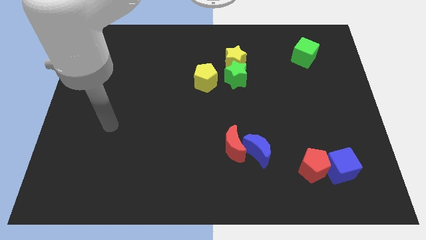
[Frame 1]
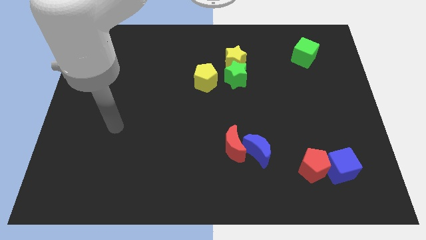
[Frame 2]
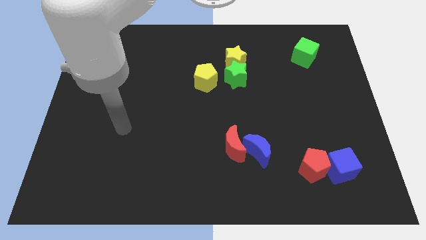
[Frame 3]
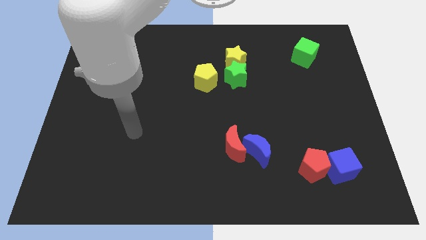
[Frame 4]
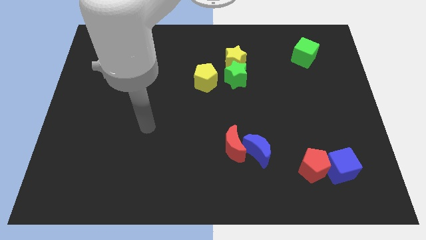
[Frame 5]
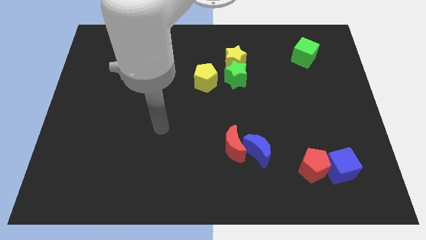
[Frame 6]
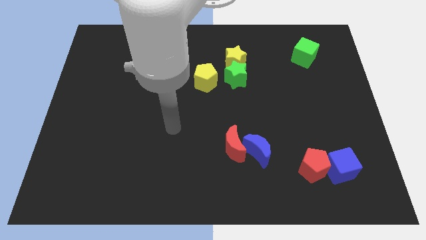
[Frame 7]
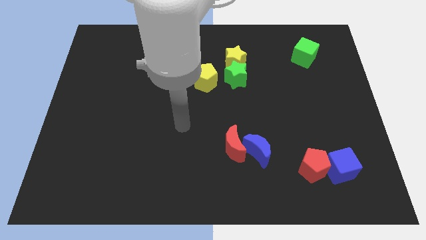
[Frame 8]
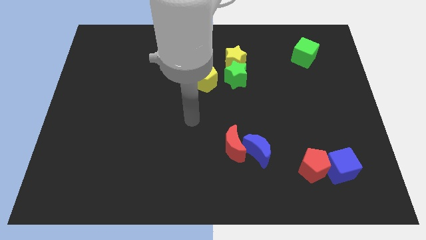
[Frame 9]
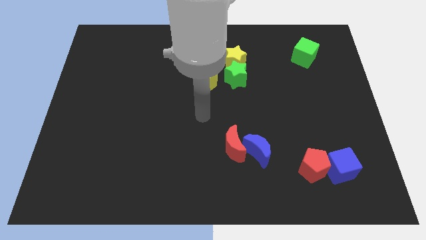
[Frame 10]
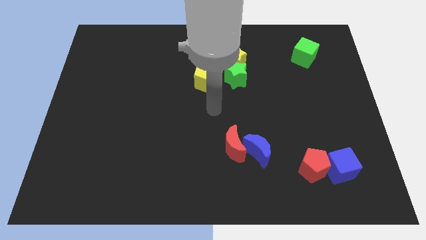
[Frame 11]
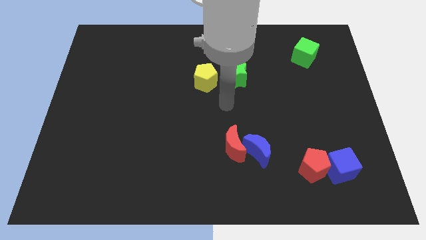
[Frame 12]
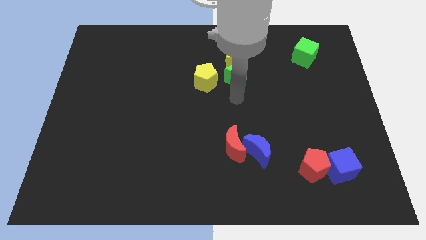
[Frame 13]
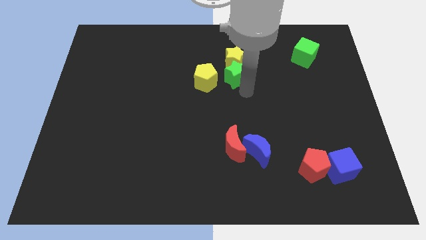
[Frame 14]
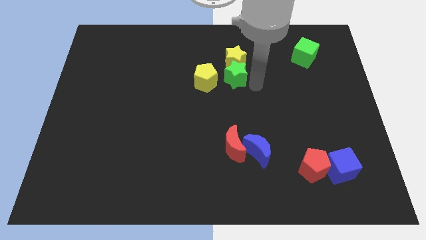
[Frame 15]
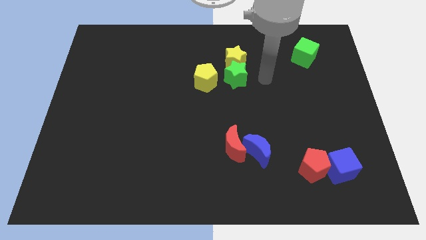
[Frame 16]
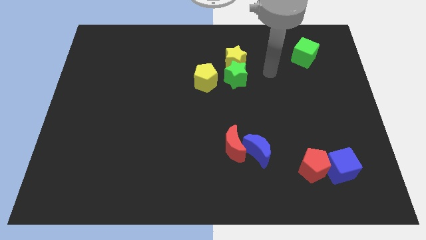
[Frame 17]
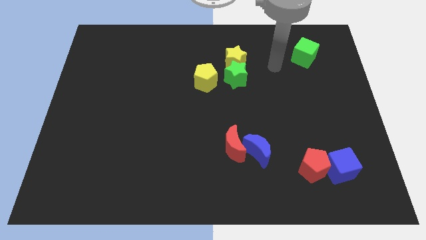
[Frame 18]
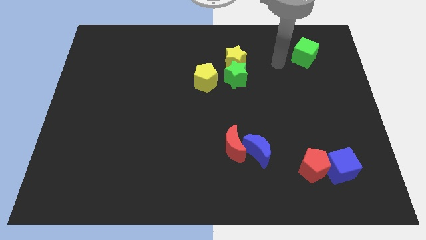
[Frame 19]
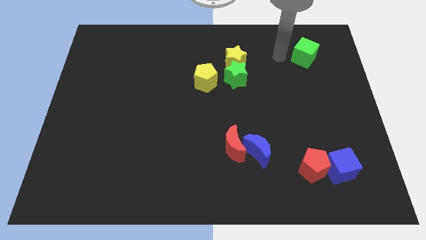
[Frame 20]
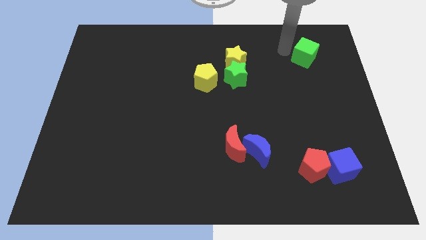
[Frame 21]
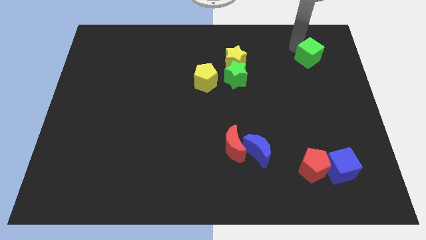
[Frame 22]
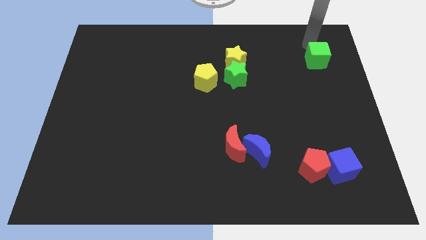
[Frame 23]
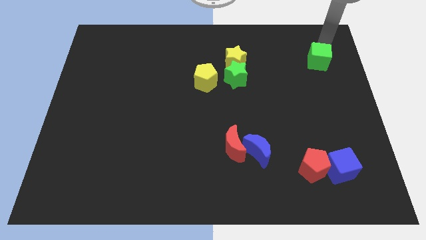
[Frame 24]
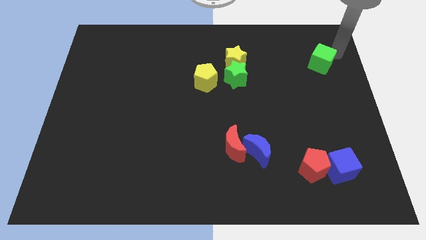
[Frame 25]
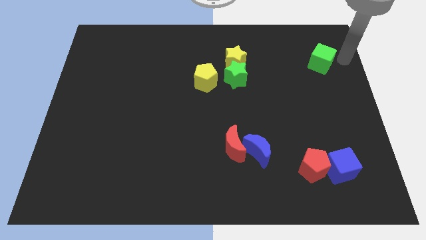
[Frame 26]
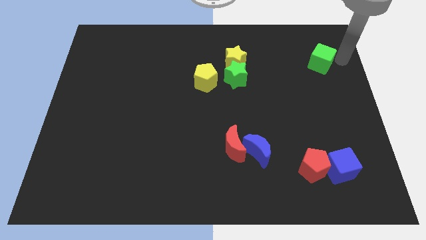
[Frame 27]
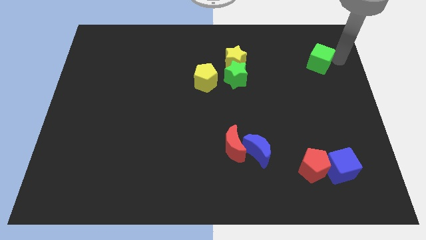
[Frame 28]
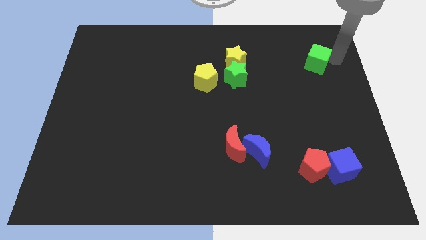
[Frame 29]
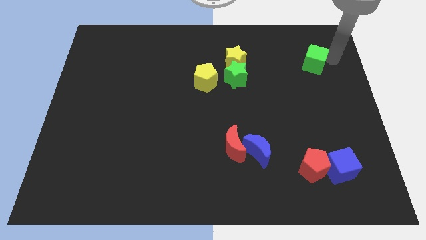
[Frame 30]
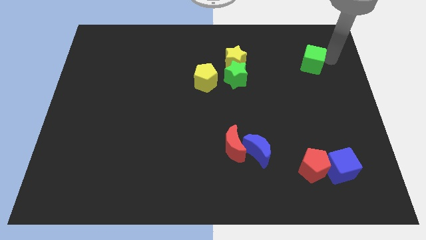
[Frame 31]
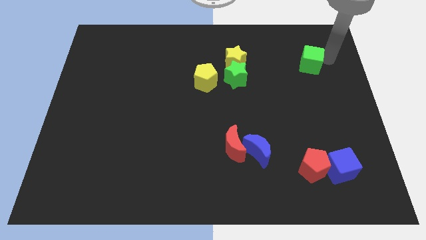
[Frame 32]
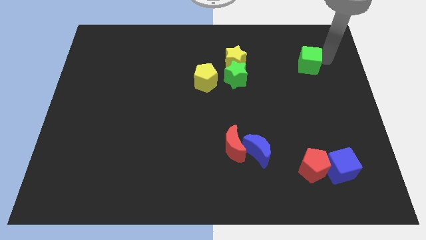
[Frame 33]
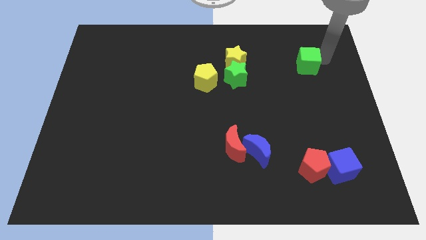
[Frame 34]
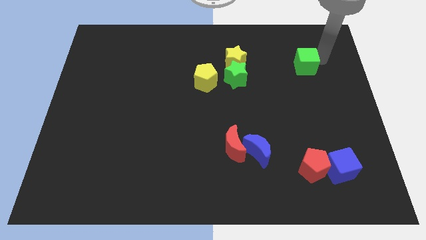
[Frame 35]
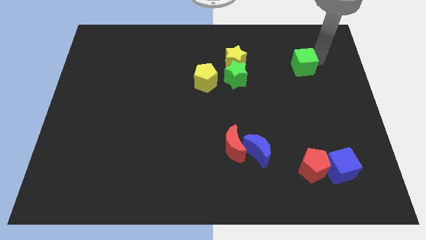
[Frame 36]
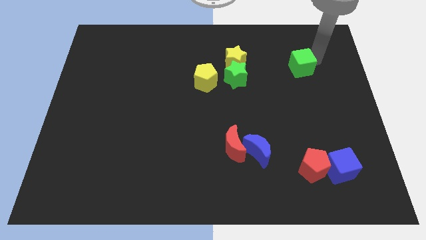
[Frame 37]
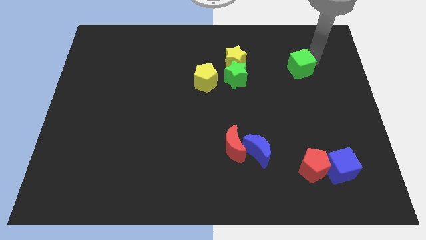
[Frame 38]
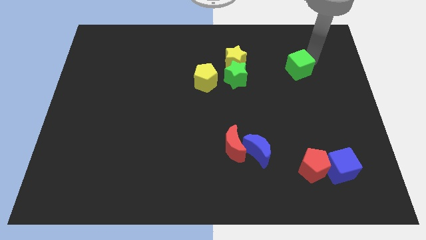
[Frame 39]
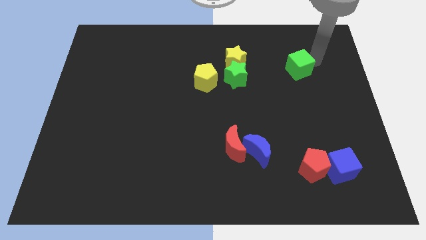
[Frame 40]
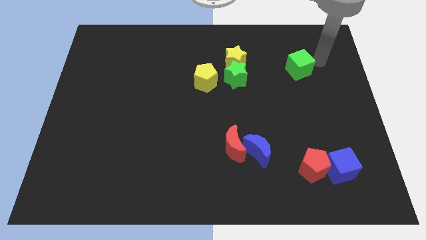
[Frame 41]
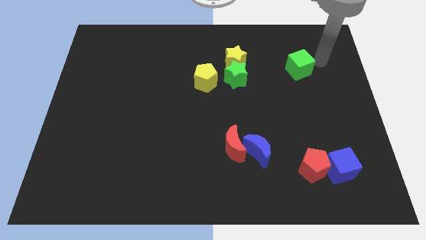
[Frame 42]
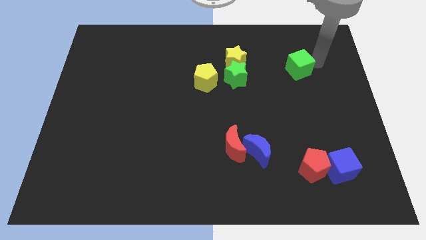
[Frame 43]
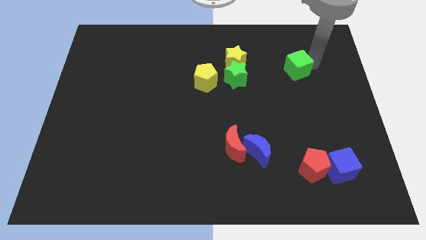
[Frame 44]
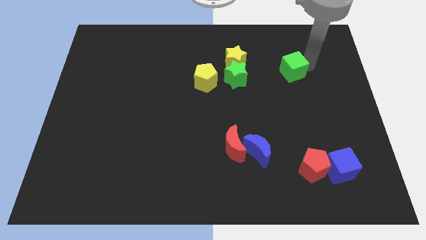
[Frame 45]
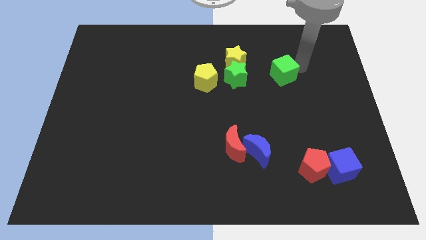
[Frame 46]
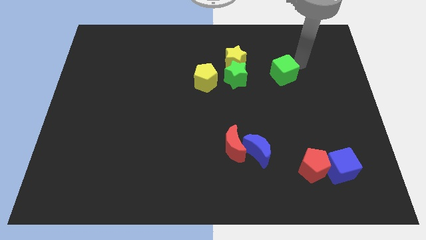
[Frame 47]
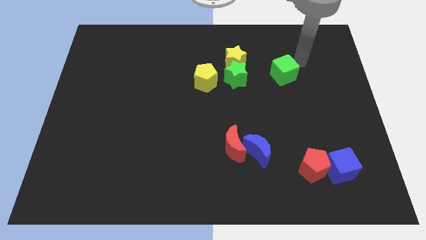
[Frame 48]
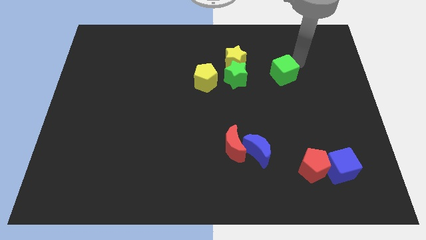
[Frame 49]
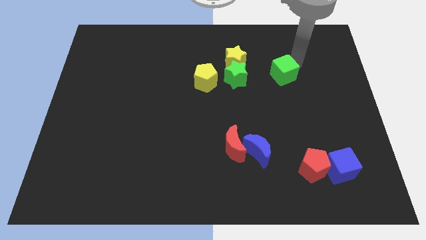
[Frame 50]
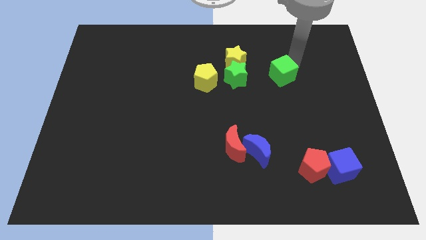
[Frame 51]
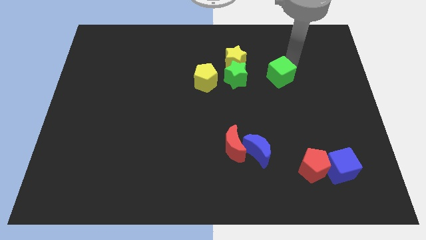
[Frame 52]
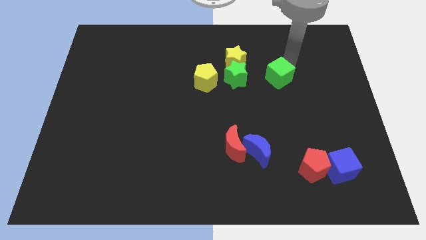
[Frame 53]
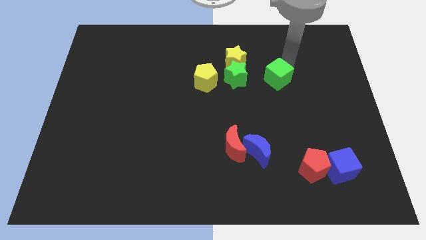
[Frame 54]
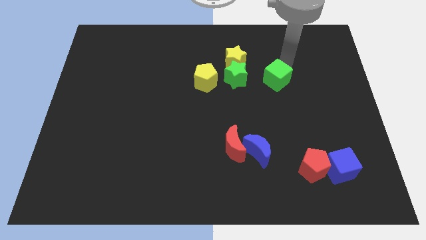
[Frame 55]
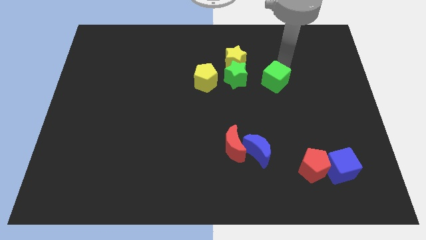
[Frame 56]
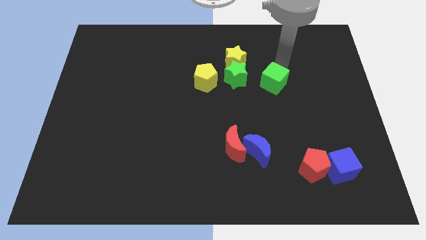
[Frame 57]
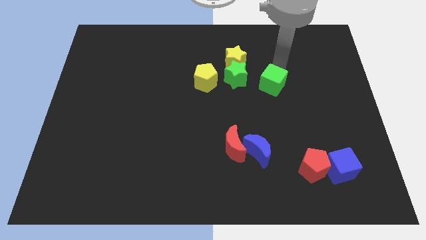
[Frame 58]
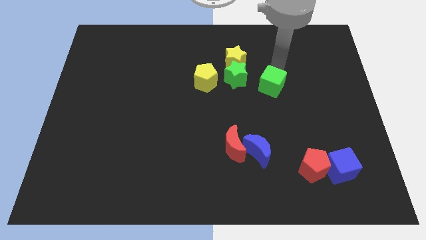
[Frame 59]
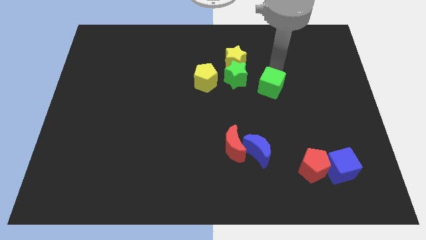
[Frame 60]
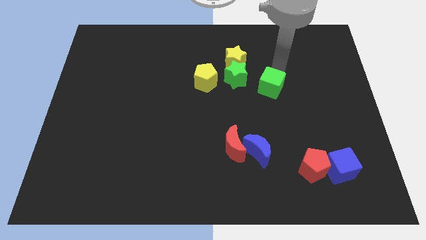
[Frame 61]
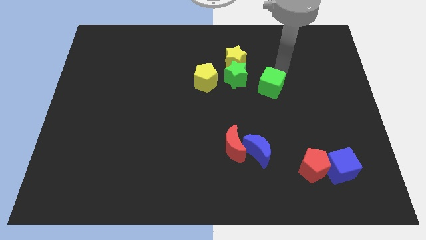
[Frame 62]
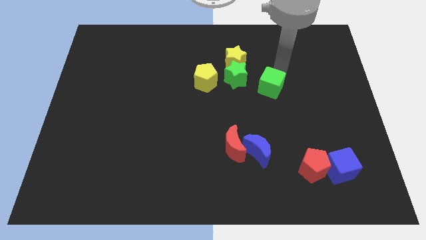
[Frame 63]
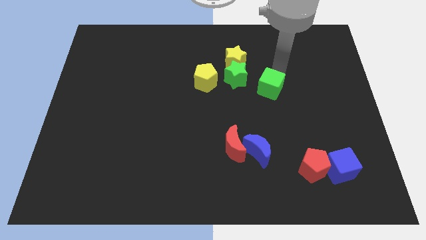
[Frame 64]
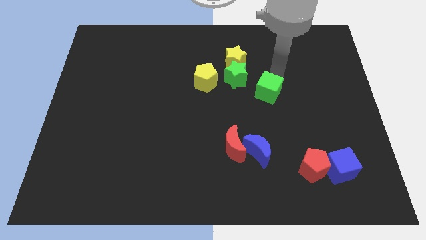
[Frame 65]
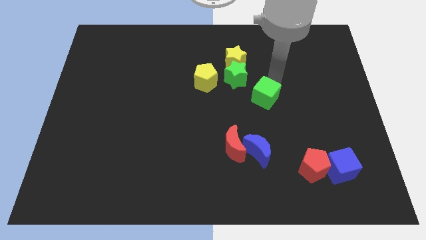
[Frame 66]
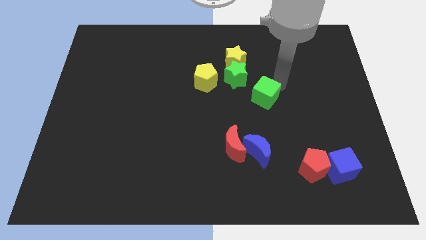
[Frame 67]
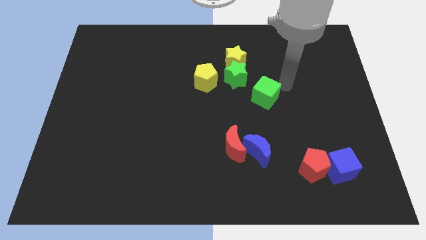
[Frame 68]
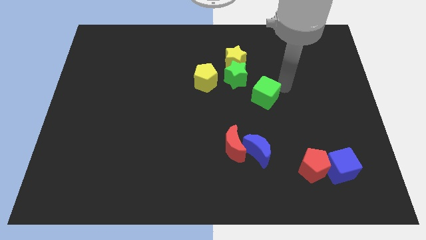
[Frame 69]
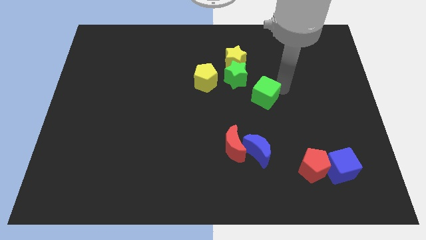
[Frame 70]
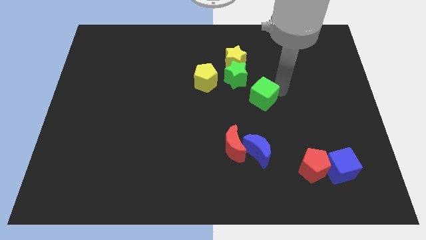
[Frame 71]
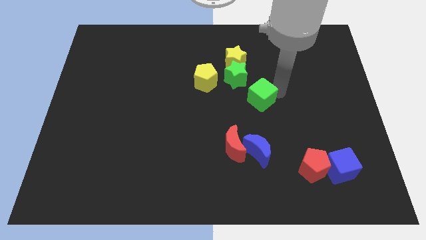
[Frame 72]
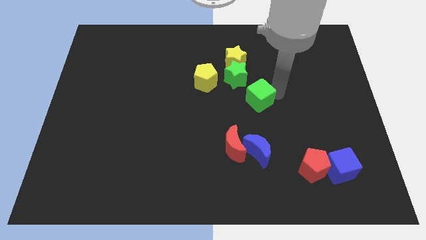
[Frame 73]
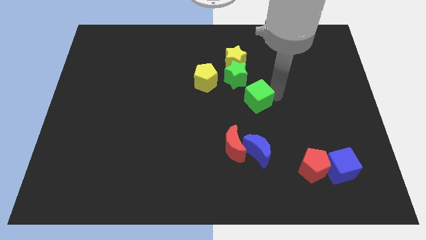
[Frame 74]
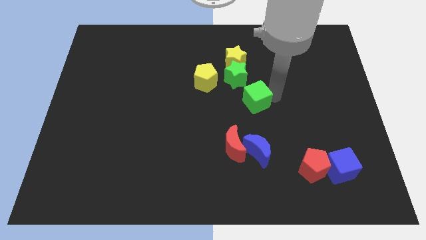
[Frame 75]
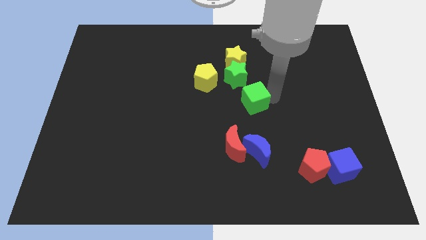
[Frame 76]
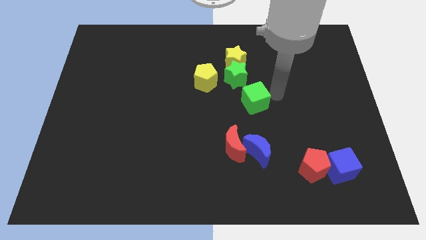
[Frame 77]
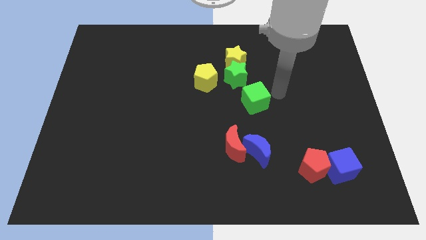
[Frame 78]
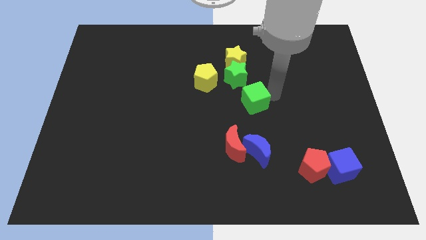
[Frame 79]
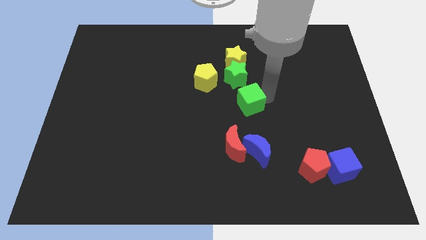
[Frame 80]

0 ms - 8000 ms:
move the green cube to the top of the red moon
